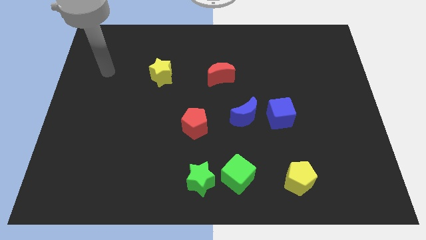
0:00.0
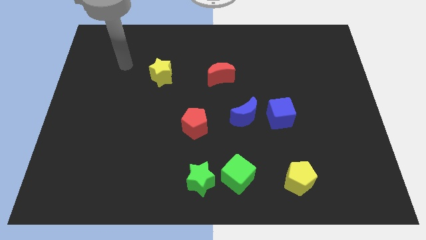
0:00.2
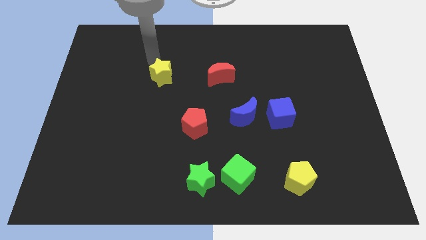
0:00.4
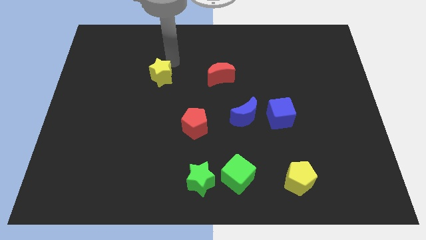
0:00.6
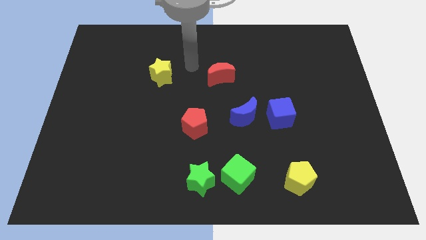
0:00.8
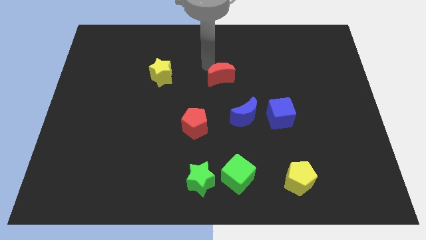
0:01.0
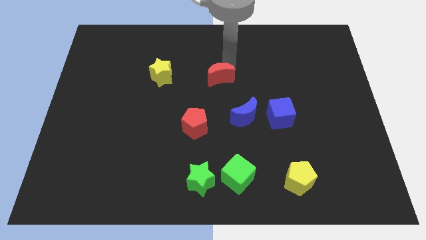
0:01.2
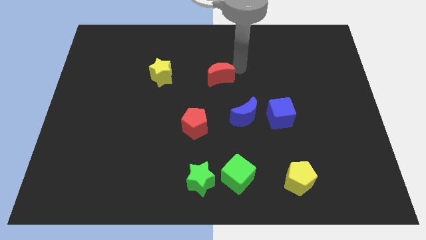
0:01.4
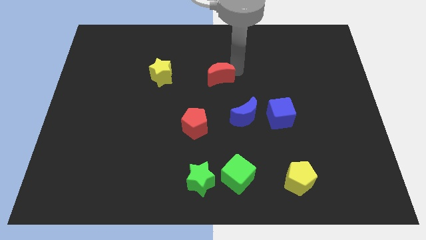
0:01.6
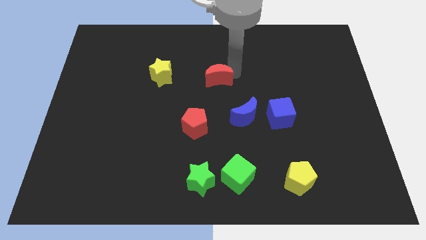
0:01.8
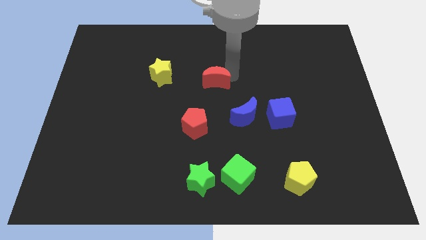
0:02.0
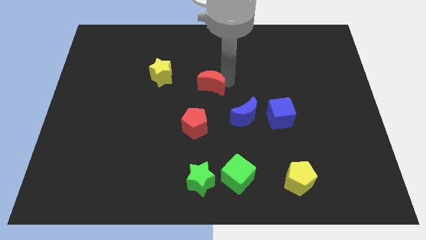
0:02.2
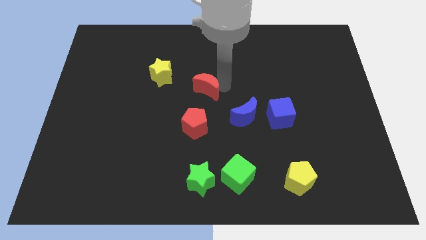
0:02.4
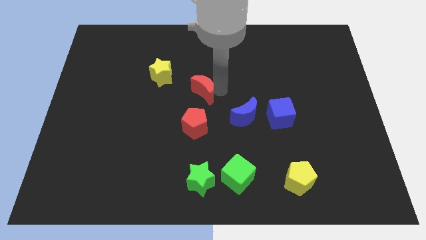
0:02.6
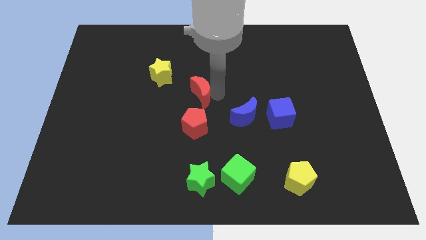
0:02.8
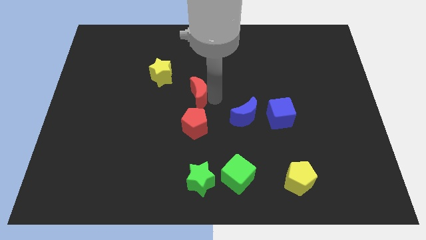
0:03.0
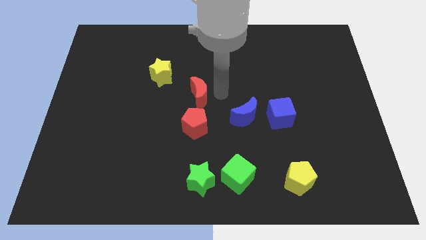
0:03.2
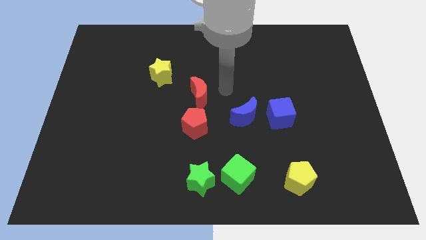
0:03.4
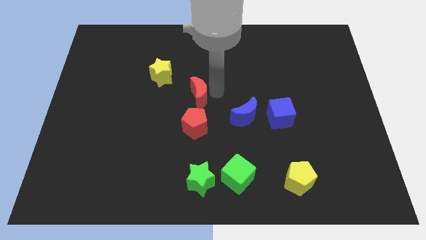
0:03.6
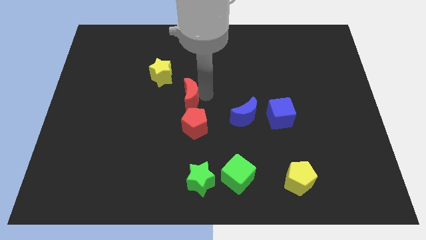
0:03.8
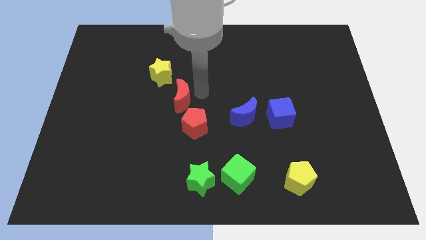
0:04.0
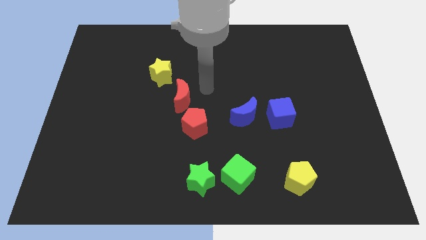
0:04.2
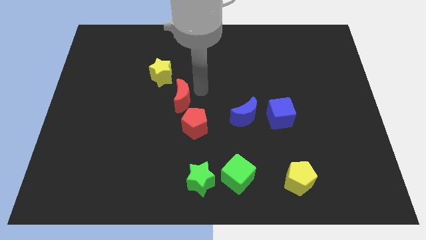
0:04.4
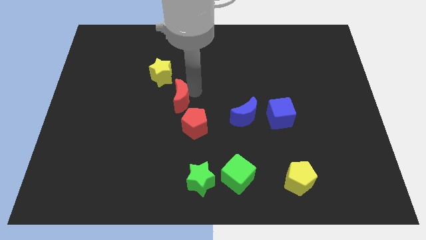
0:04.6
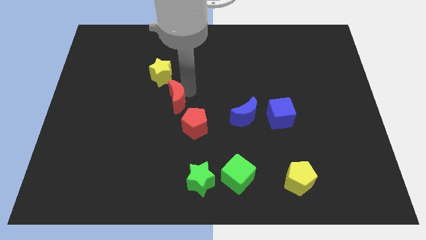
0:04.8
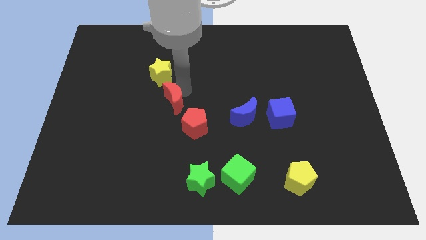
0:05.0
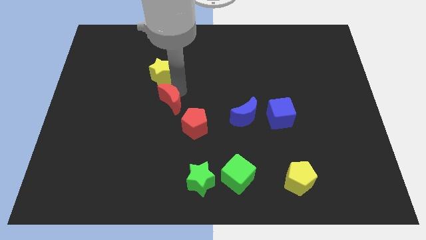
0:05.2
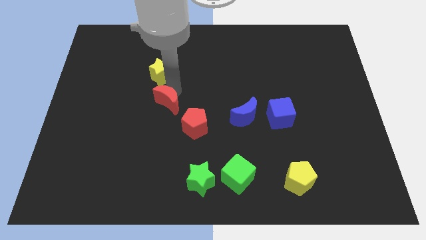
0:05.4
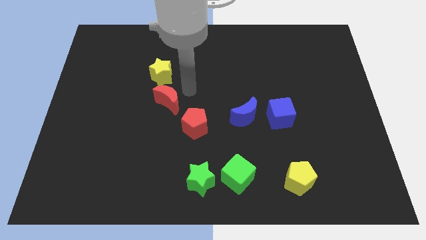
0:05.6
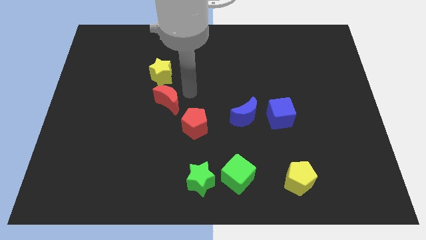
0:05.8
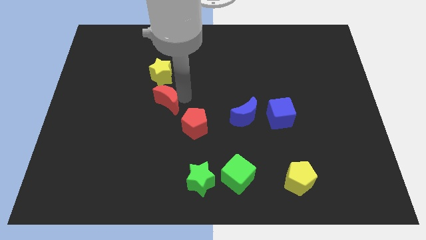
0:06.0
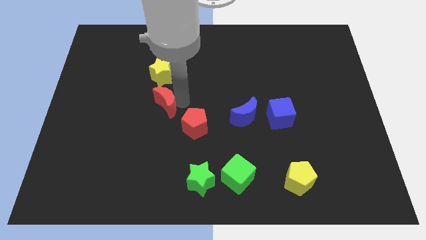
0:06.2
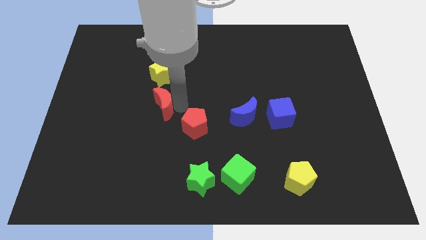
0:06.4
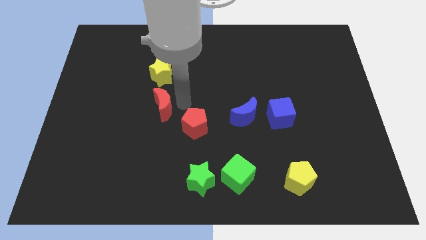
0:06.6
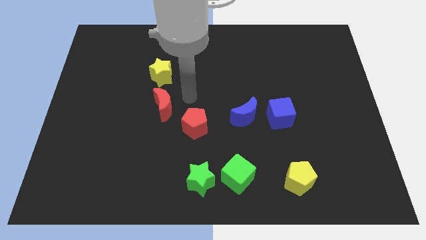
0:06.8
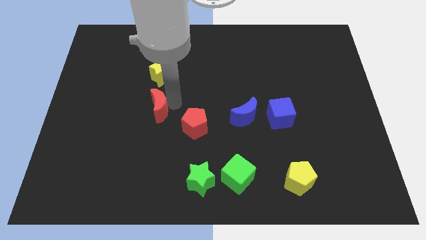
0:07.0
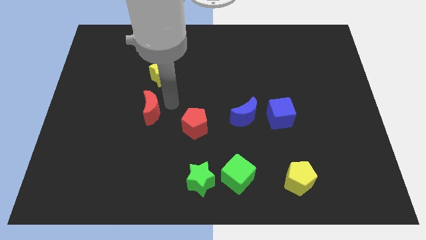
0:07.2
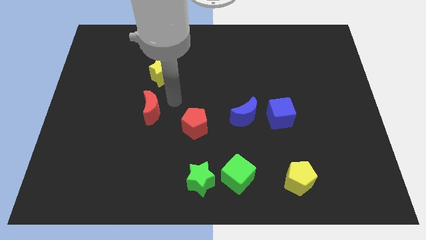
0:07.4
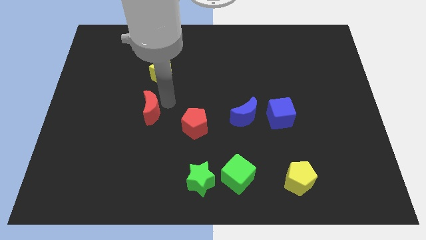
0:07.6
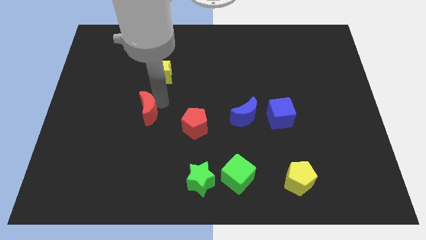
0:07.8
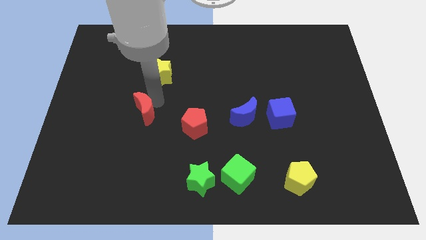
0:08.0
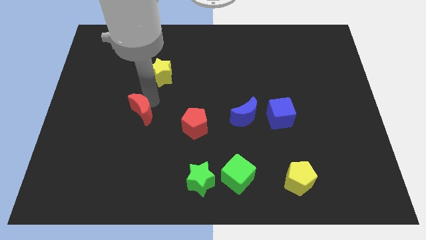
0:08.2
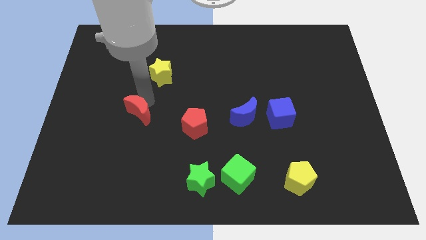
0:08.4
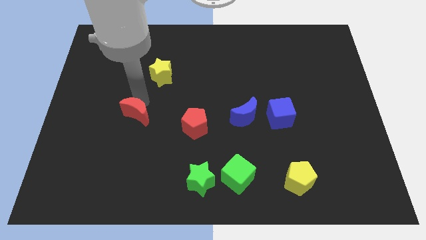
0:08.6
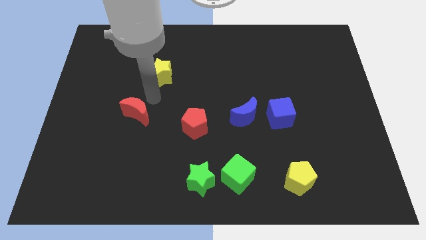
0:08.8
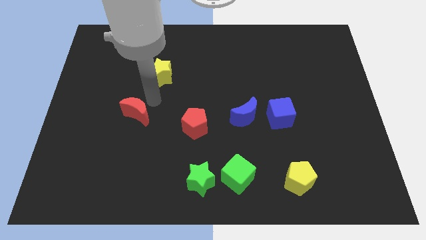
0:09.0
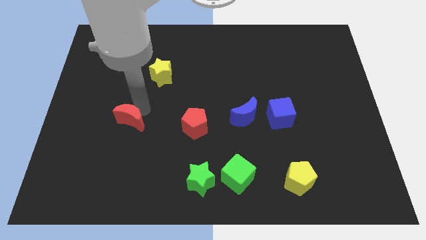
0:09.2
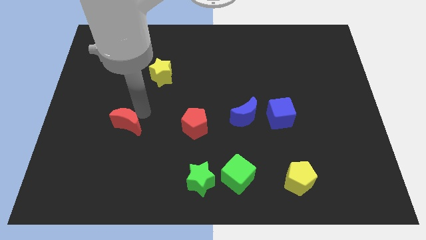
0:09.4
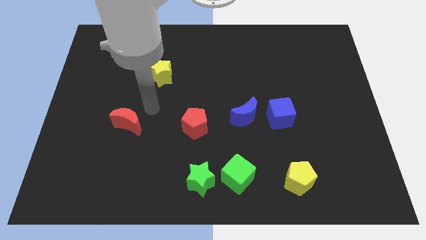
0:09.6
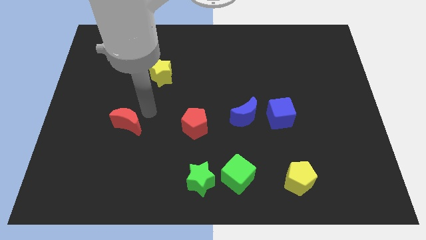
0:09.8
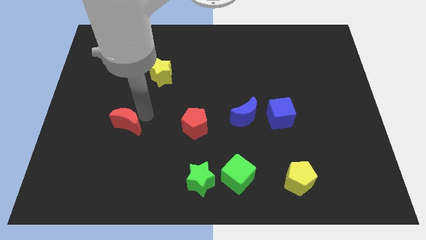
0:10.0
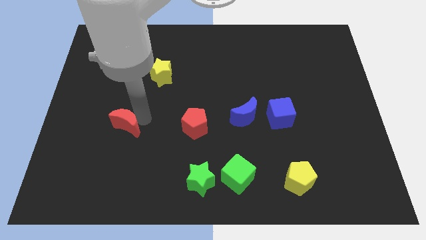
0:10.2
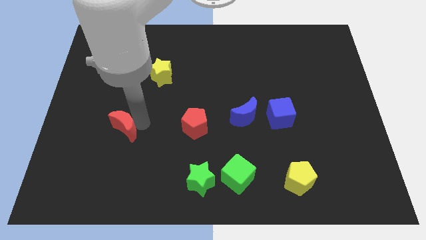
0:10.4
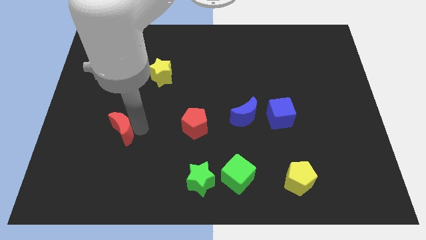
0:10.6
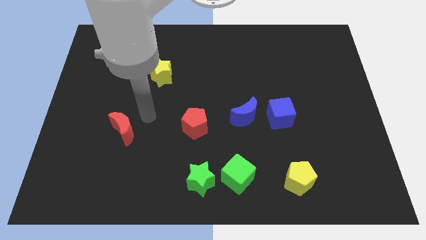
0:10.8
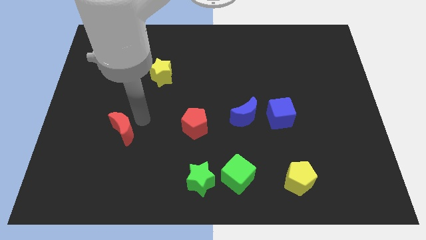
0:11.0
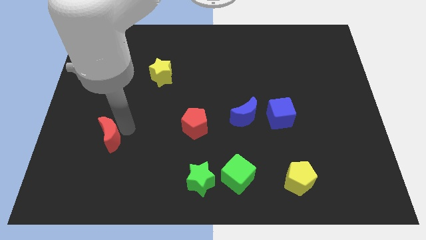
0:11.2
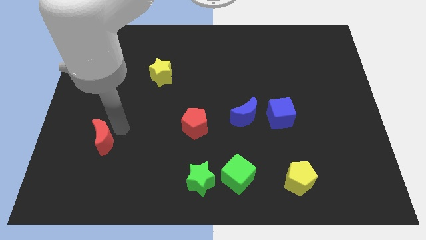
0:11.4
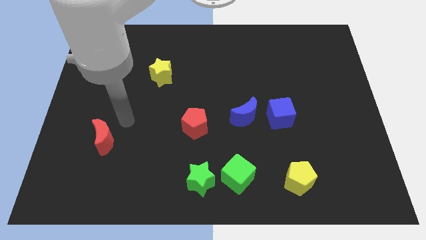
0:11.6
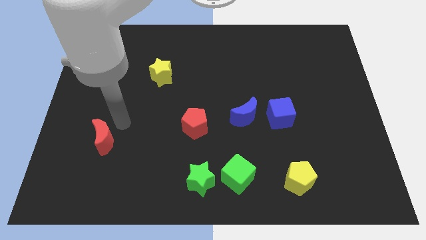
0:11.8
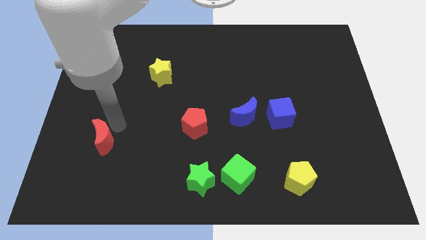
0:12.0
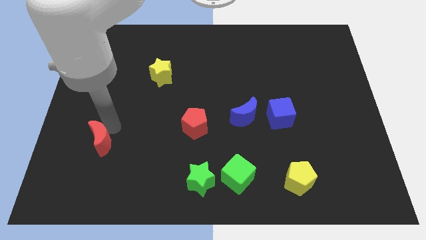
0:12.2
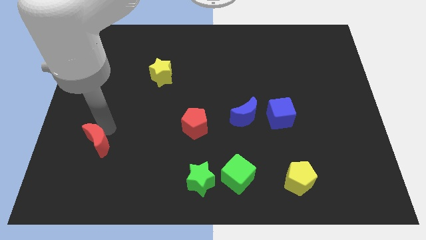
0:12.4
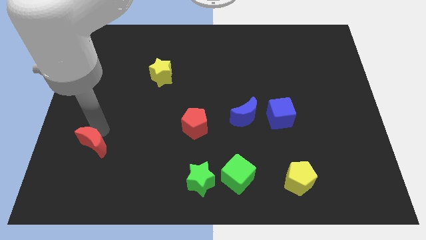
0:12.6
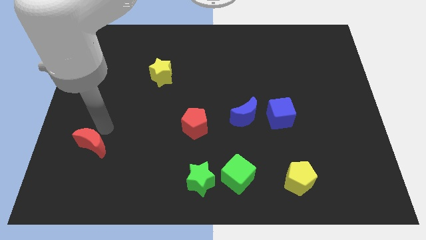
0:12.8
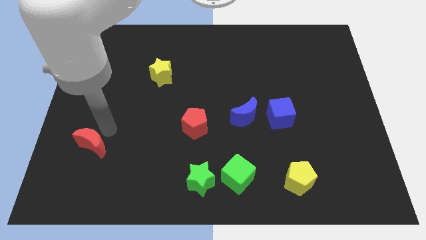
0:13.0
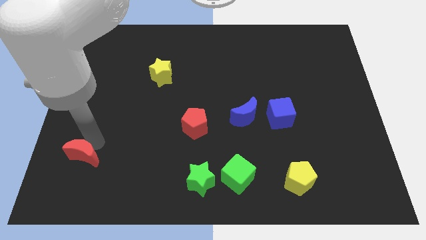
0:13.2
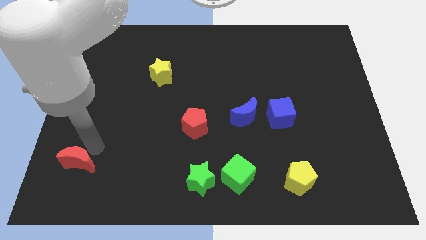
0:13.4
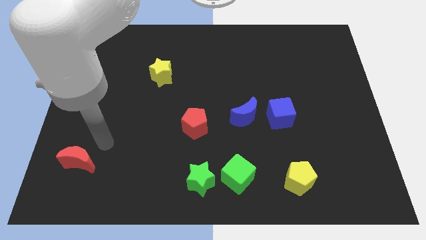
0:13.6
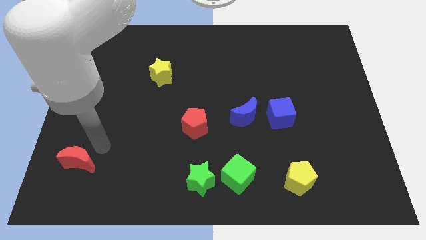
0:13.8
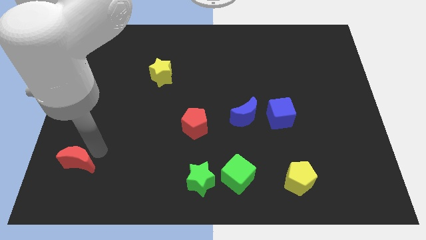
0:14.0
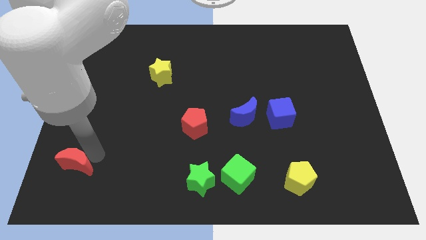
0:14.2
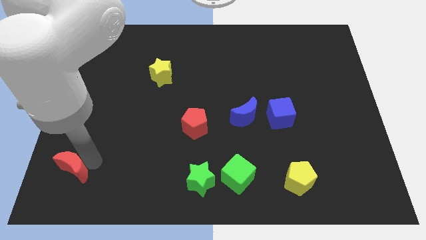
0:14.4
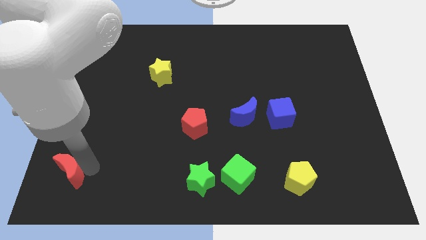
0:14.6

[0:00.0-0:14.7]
slide the red moon to the bottom left
